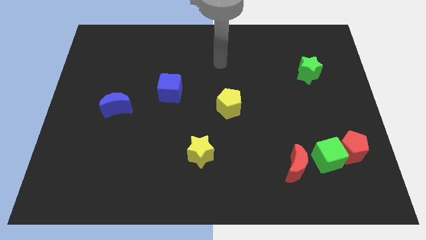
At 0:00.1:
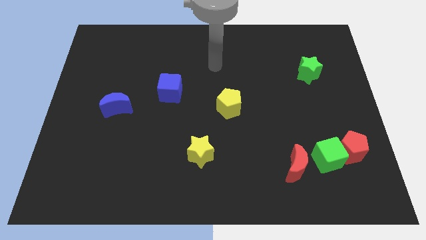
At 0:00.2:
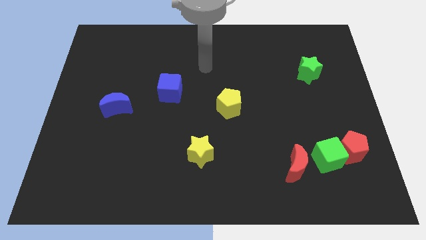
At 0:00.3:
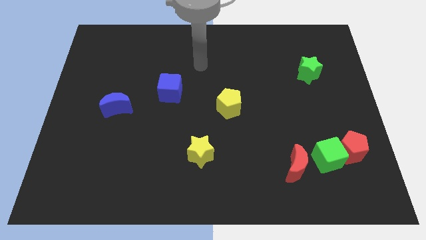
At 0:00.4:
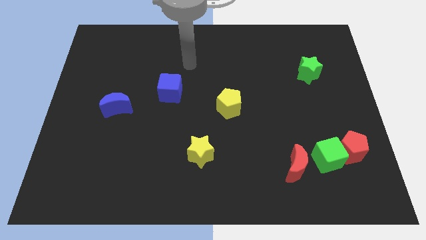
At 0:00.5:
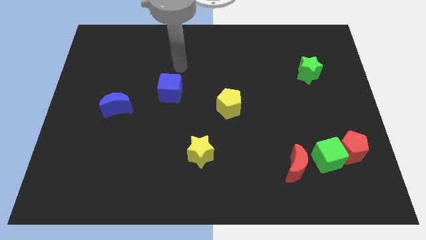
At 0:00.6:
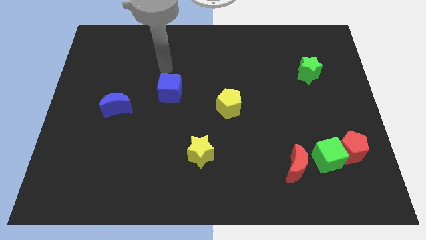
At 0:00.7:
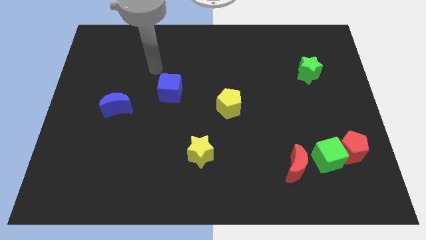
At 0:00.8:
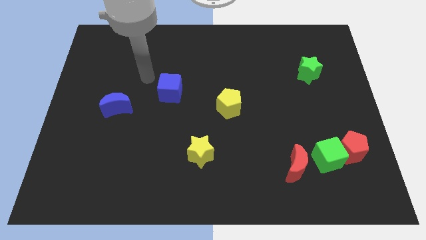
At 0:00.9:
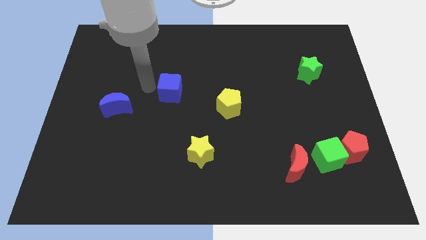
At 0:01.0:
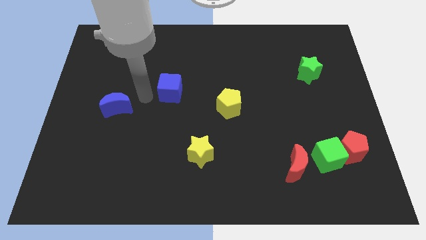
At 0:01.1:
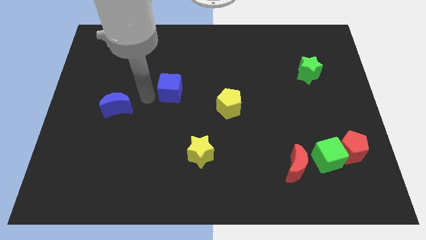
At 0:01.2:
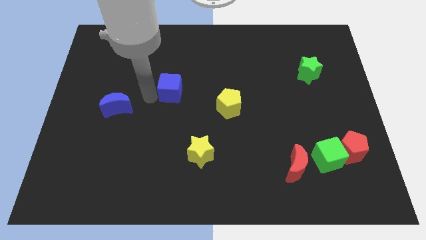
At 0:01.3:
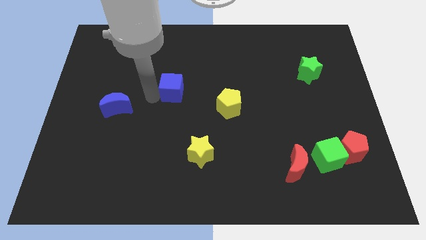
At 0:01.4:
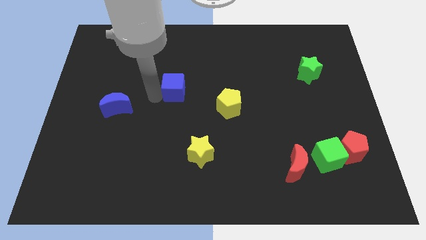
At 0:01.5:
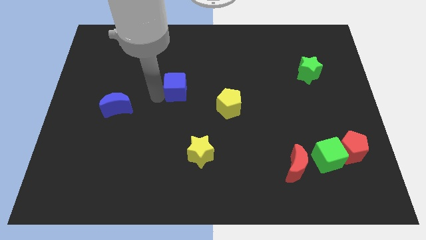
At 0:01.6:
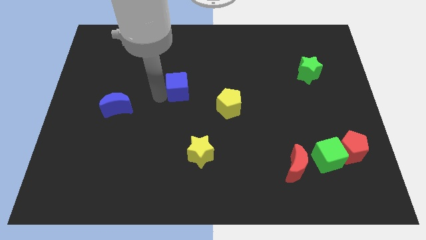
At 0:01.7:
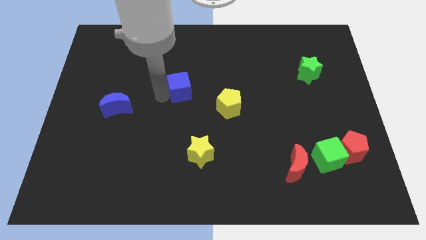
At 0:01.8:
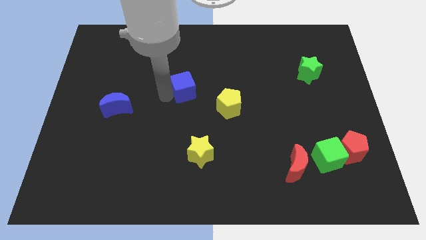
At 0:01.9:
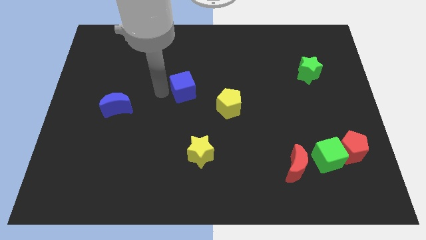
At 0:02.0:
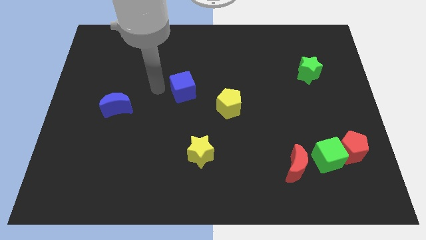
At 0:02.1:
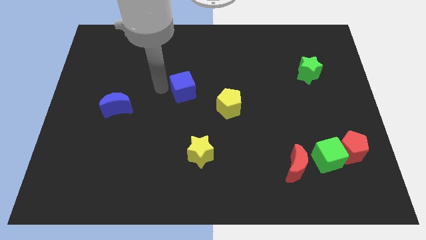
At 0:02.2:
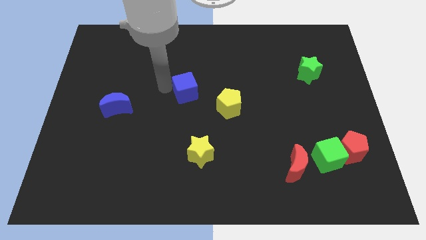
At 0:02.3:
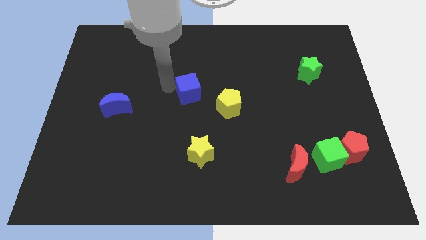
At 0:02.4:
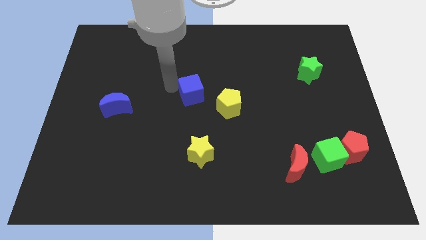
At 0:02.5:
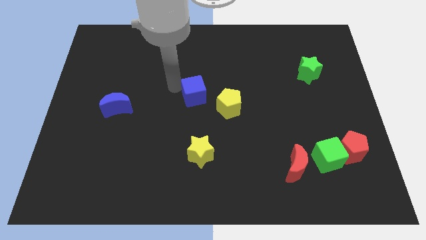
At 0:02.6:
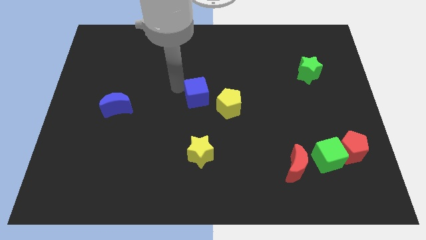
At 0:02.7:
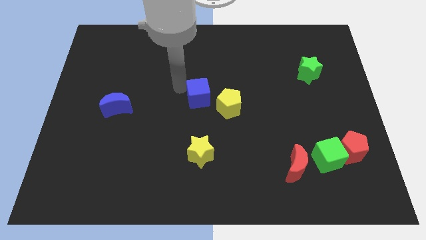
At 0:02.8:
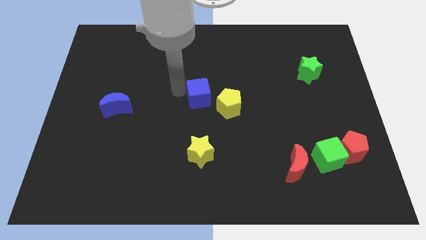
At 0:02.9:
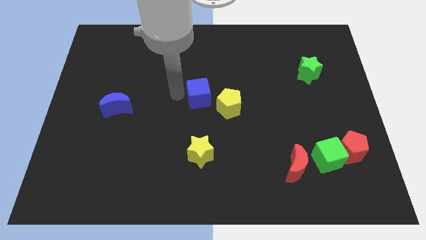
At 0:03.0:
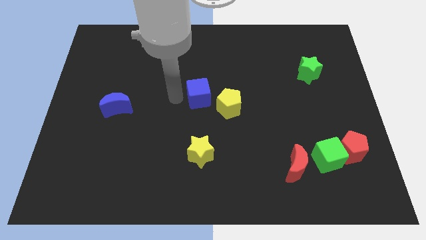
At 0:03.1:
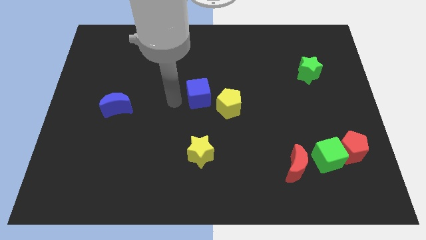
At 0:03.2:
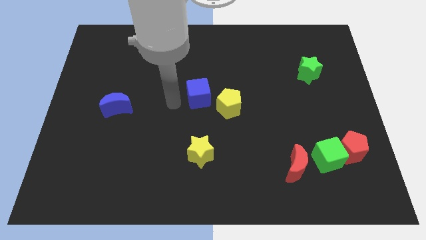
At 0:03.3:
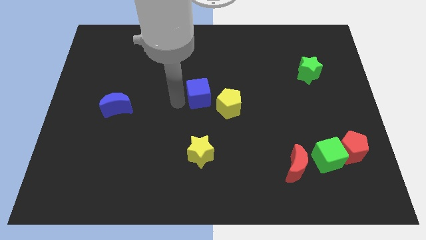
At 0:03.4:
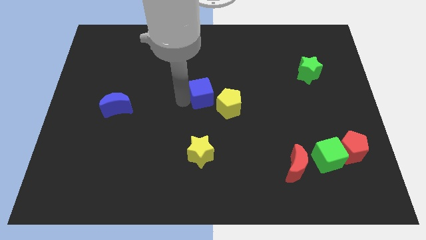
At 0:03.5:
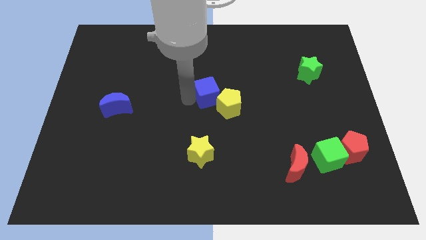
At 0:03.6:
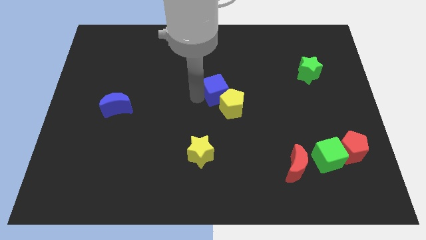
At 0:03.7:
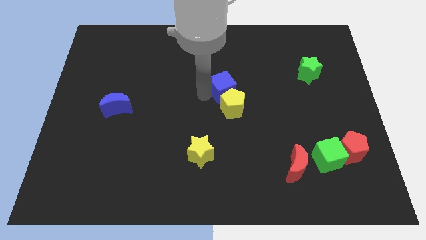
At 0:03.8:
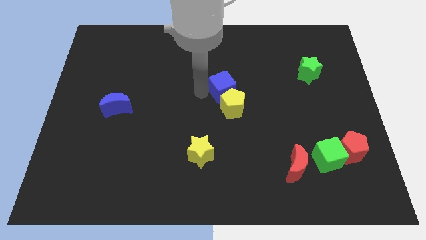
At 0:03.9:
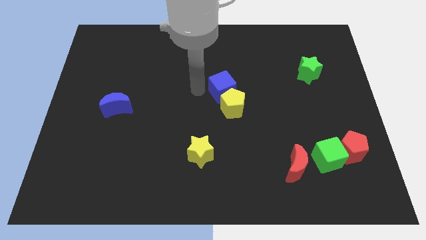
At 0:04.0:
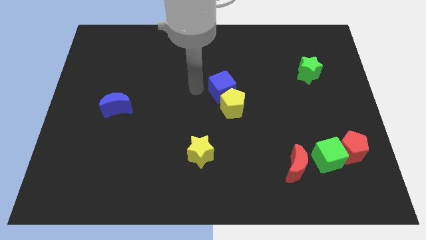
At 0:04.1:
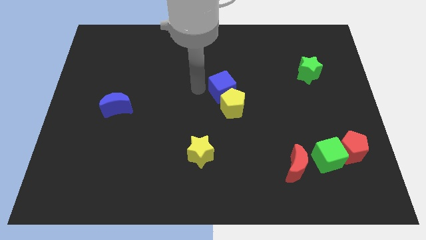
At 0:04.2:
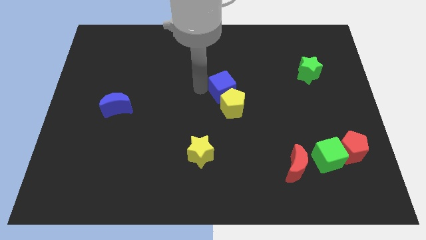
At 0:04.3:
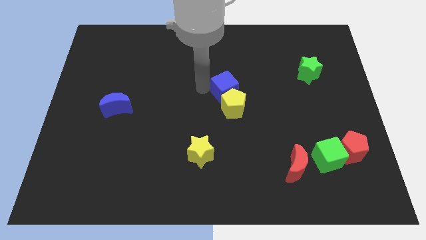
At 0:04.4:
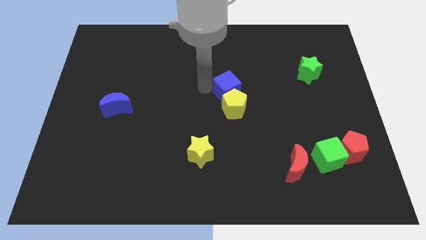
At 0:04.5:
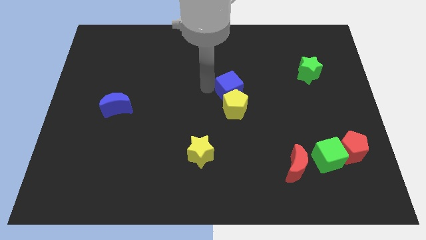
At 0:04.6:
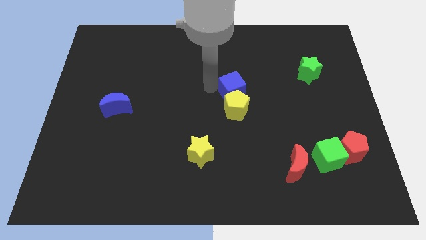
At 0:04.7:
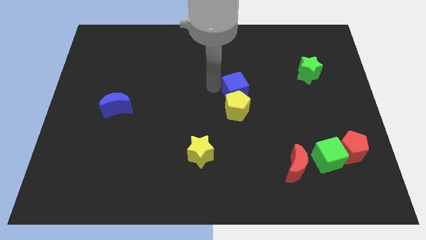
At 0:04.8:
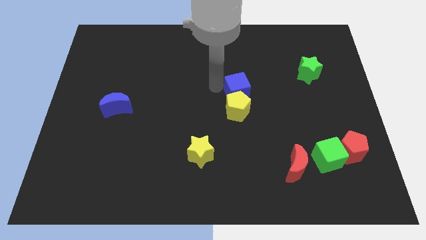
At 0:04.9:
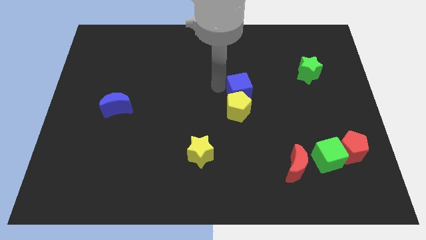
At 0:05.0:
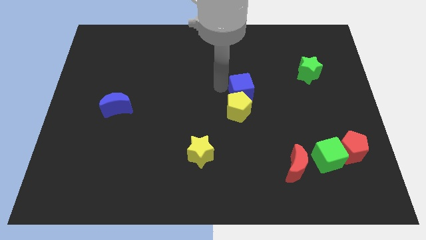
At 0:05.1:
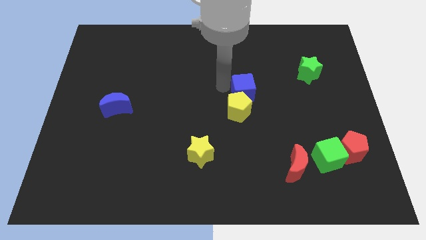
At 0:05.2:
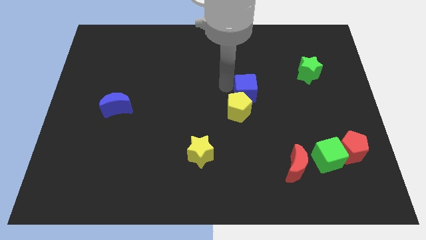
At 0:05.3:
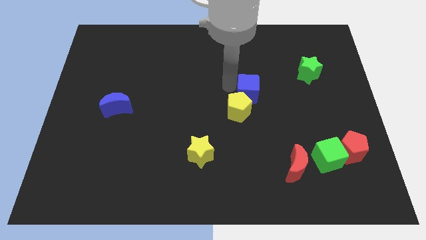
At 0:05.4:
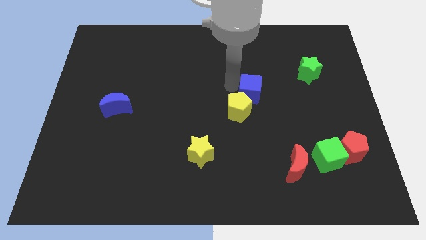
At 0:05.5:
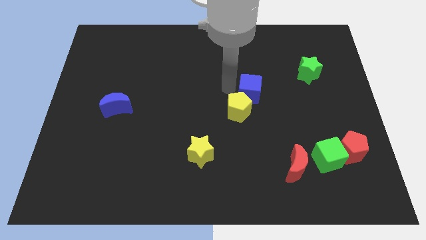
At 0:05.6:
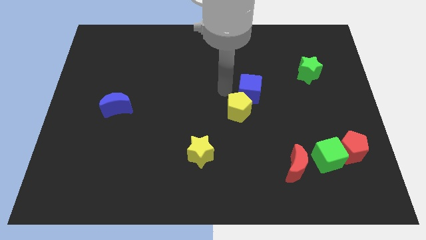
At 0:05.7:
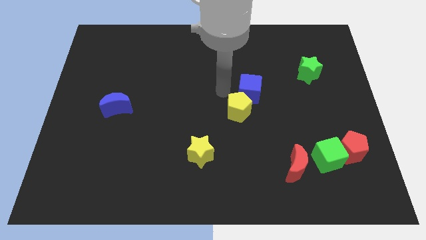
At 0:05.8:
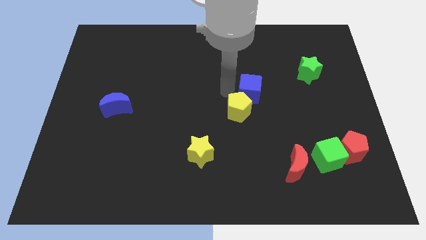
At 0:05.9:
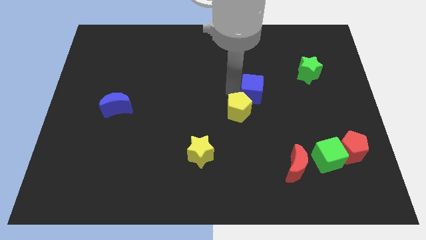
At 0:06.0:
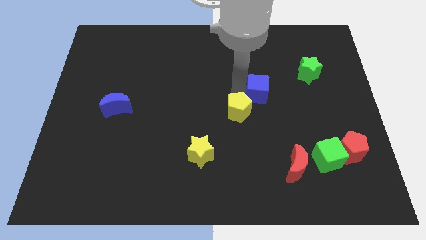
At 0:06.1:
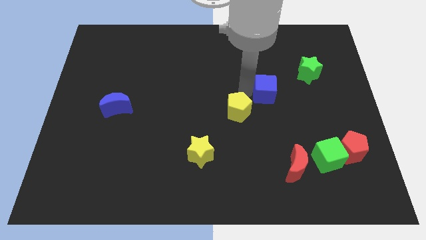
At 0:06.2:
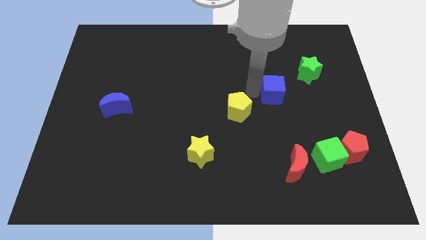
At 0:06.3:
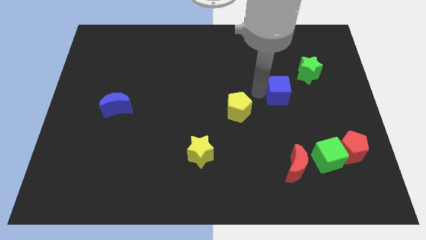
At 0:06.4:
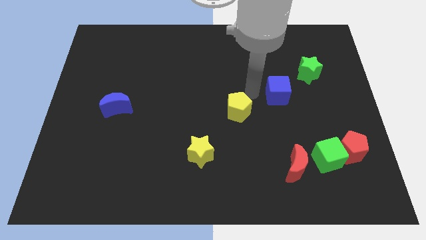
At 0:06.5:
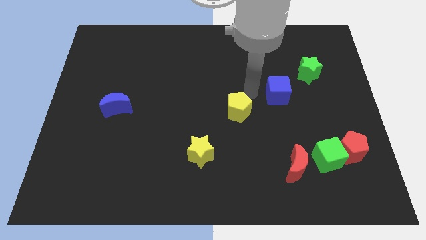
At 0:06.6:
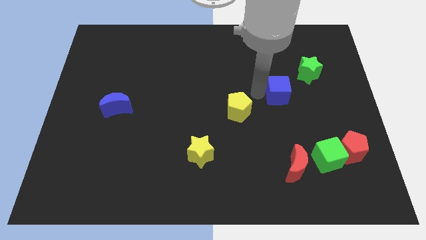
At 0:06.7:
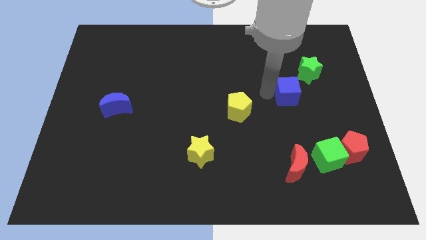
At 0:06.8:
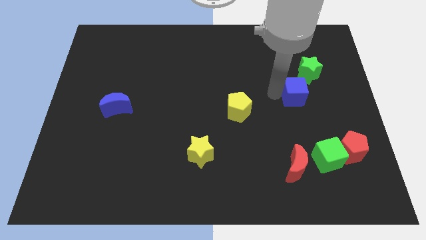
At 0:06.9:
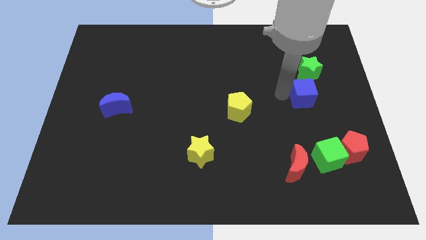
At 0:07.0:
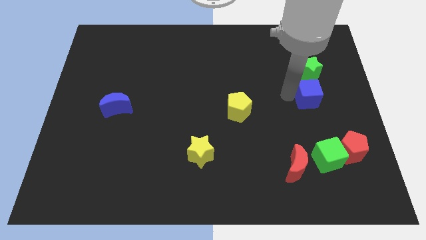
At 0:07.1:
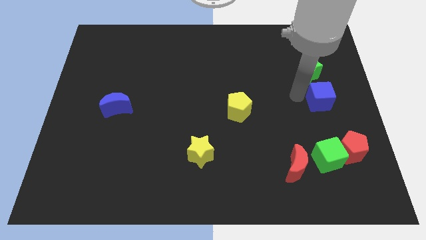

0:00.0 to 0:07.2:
push the blue cube to the right side of the board
